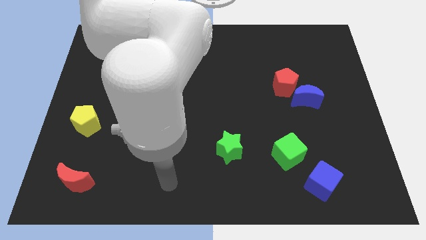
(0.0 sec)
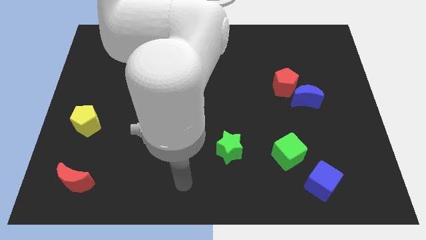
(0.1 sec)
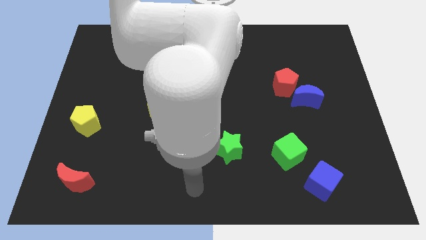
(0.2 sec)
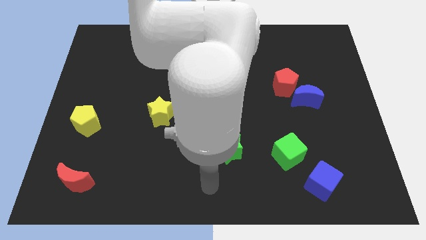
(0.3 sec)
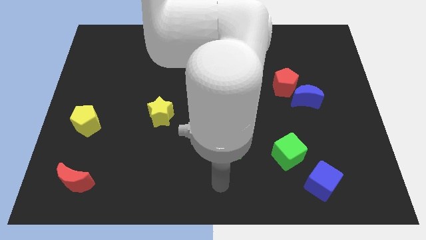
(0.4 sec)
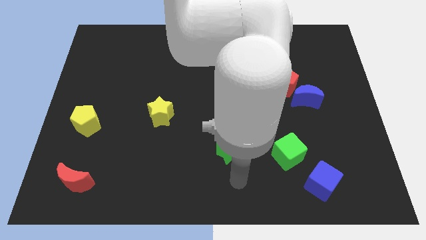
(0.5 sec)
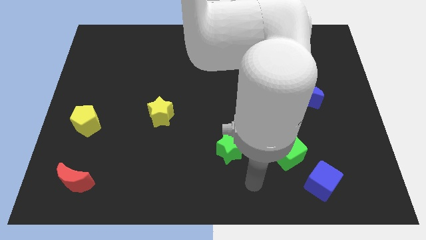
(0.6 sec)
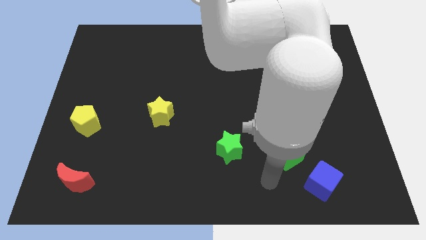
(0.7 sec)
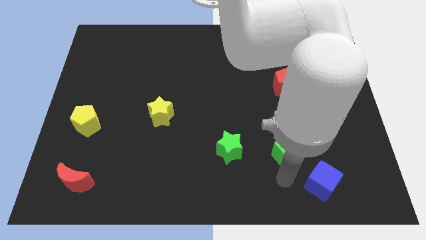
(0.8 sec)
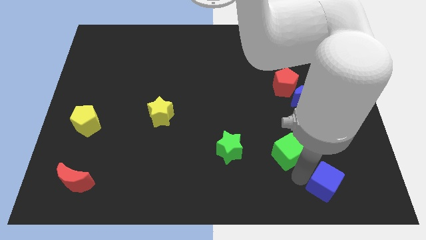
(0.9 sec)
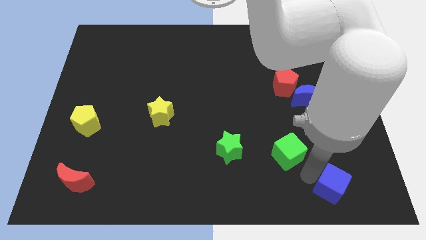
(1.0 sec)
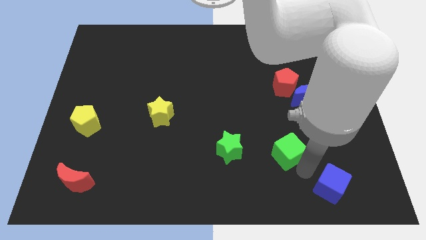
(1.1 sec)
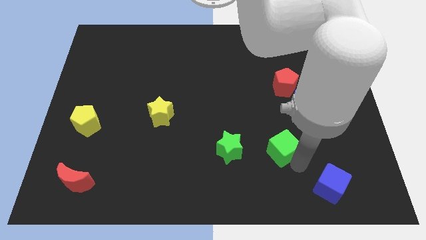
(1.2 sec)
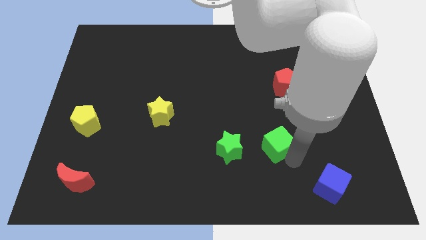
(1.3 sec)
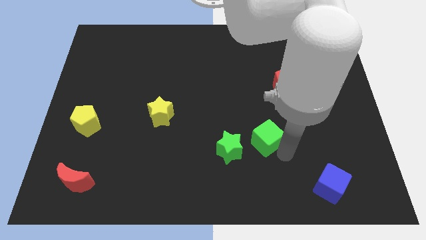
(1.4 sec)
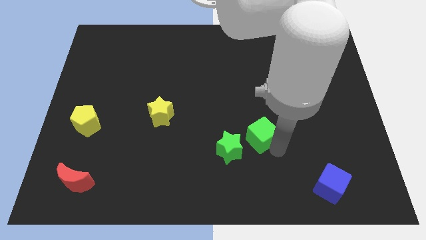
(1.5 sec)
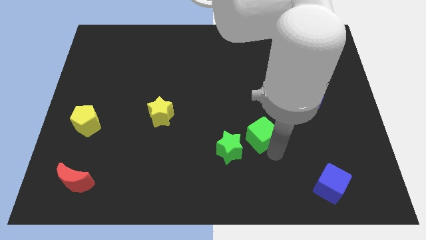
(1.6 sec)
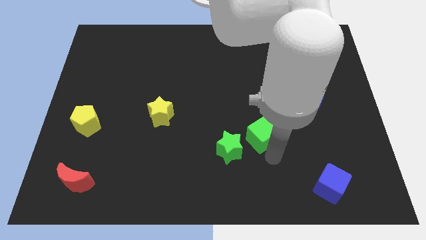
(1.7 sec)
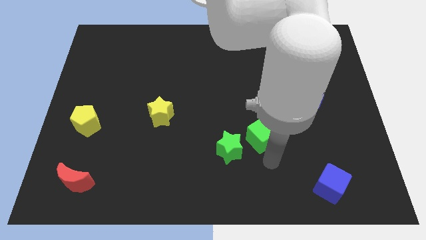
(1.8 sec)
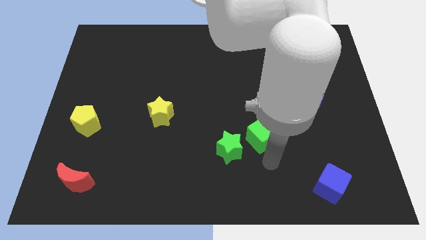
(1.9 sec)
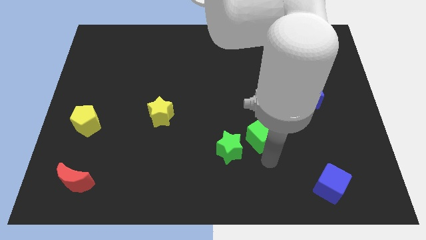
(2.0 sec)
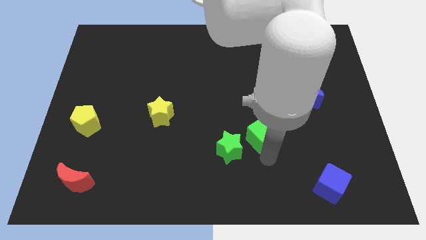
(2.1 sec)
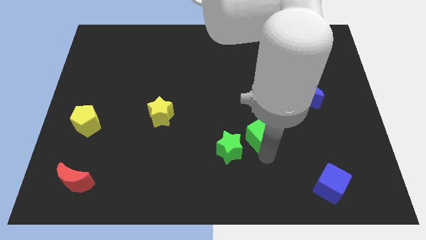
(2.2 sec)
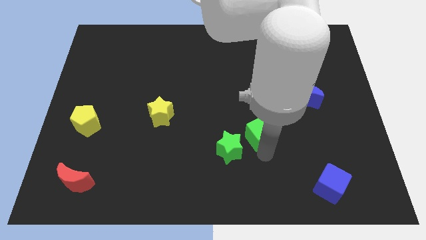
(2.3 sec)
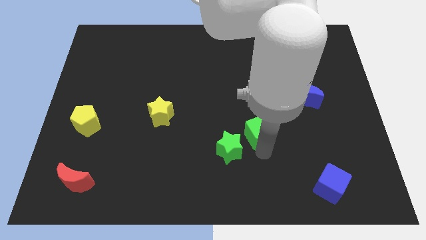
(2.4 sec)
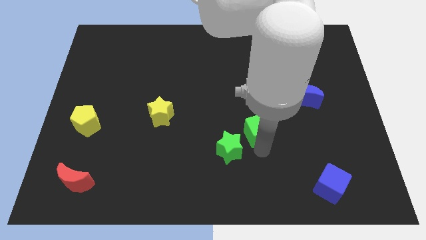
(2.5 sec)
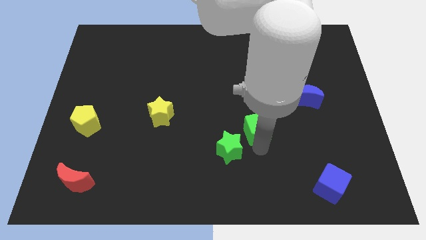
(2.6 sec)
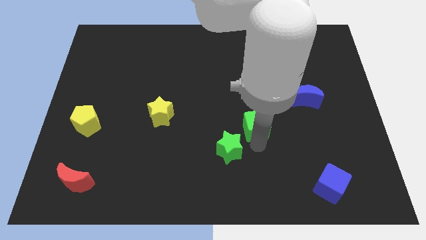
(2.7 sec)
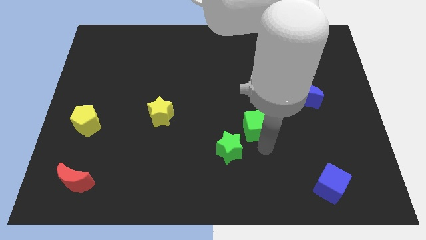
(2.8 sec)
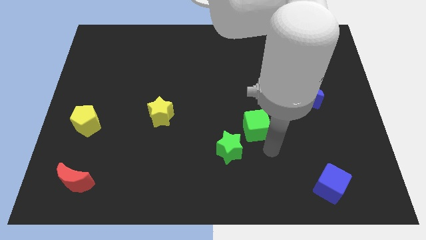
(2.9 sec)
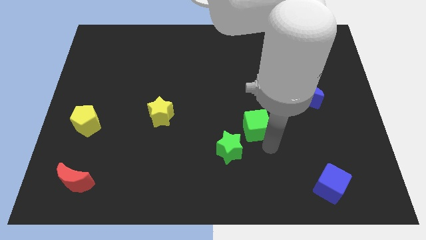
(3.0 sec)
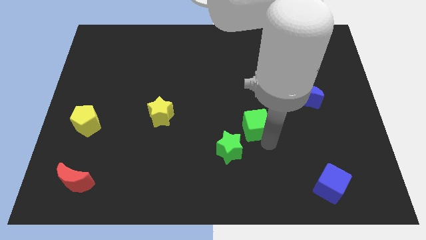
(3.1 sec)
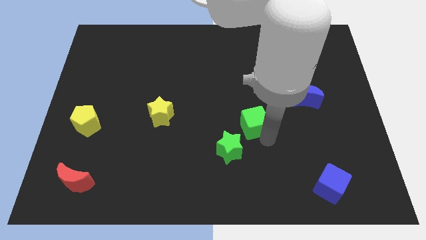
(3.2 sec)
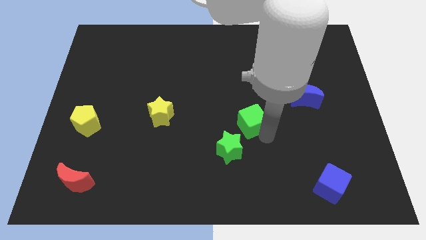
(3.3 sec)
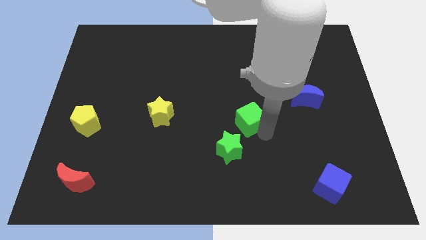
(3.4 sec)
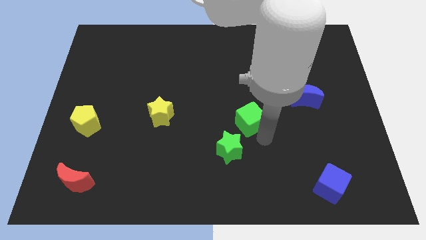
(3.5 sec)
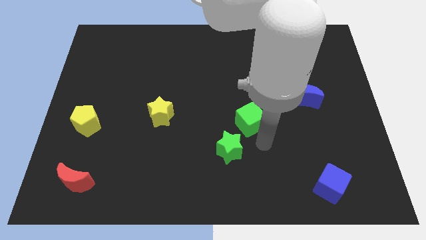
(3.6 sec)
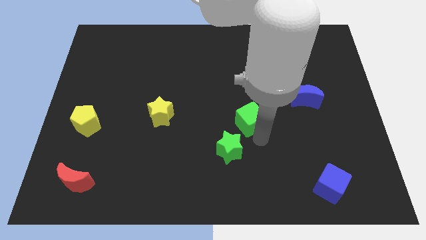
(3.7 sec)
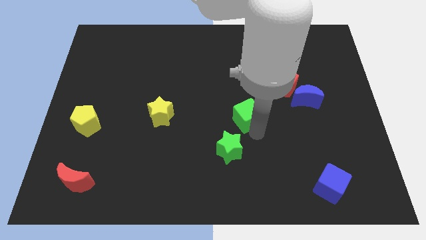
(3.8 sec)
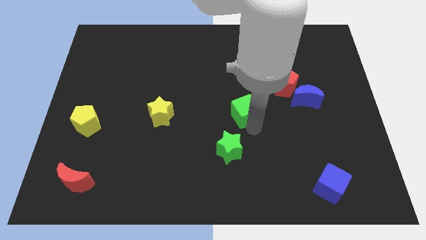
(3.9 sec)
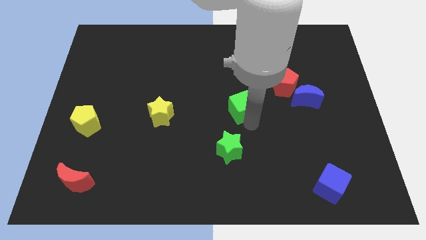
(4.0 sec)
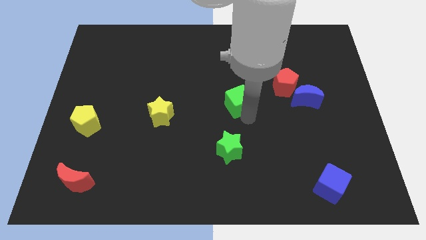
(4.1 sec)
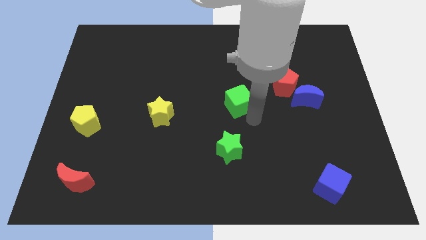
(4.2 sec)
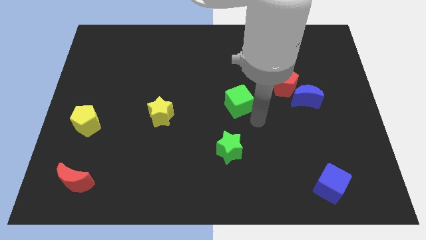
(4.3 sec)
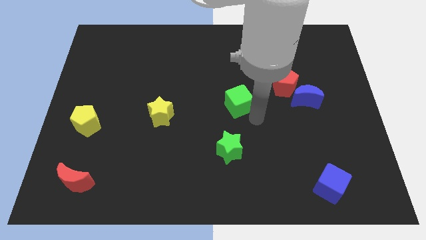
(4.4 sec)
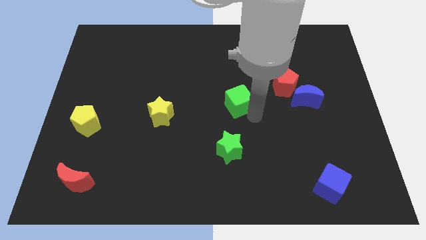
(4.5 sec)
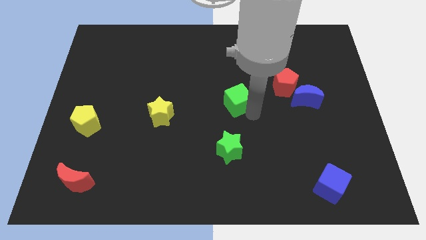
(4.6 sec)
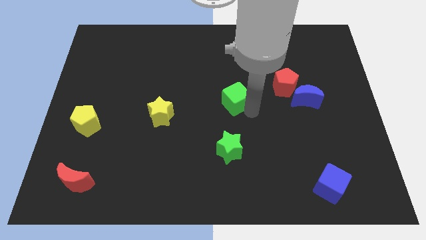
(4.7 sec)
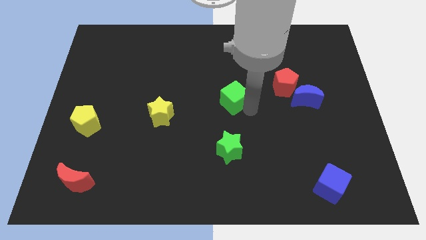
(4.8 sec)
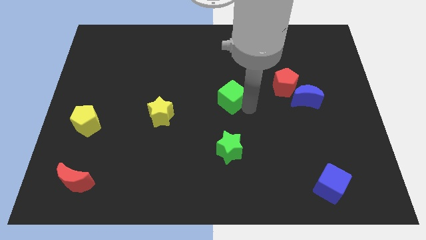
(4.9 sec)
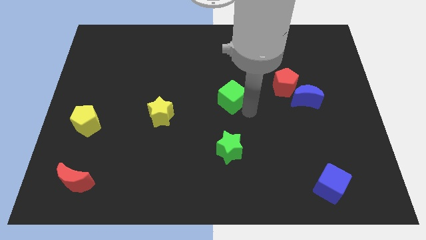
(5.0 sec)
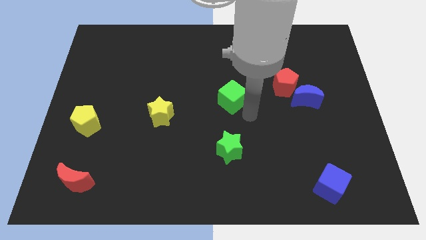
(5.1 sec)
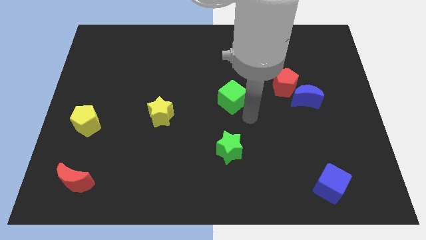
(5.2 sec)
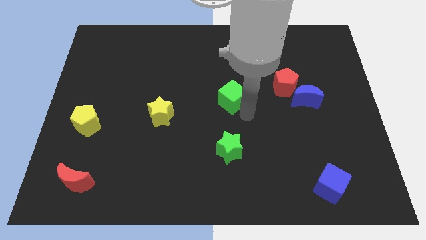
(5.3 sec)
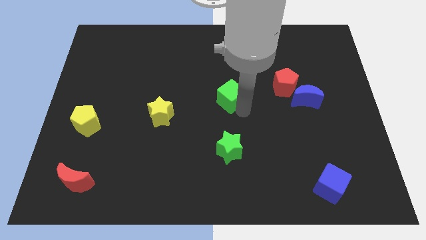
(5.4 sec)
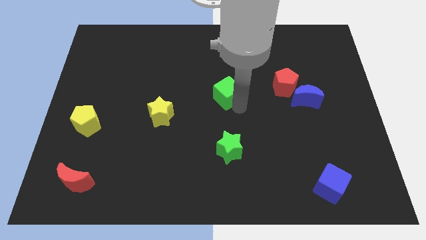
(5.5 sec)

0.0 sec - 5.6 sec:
slide the green cube diagonally upwards and to the left

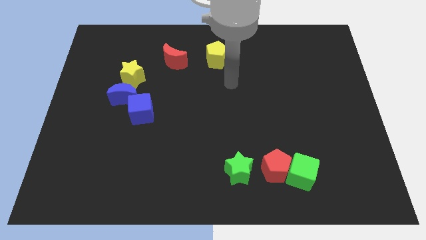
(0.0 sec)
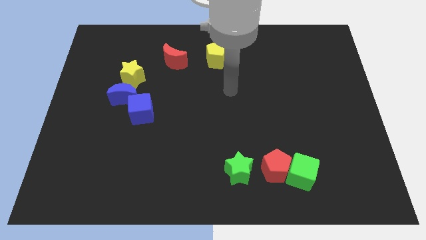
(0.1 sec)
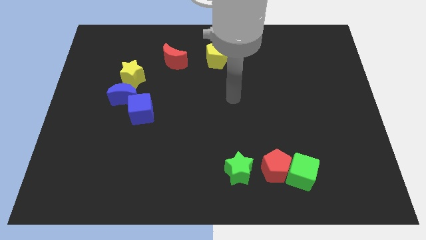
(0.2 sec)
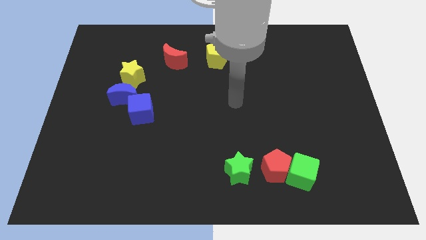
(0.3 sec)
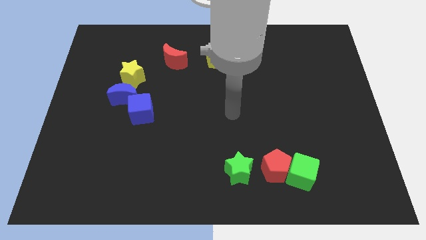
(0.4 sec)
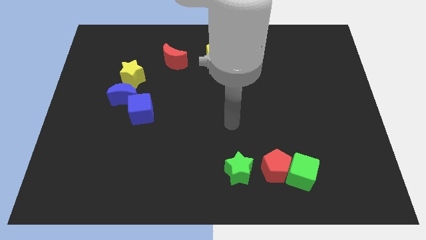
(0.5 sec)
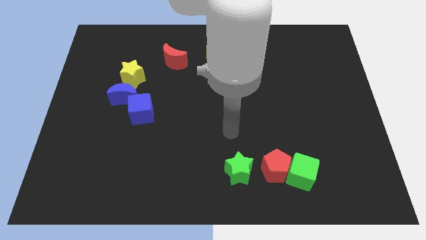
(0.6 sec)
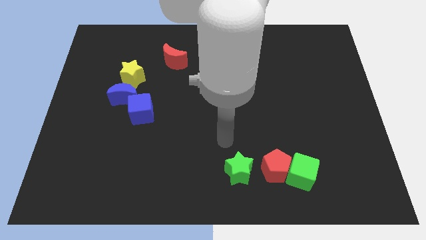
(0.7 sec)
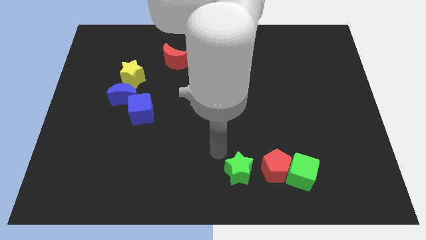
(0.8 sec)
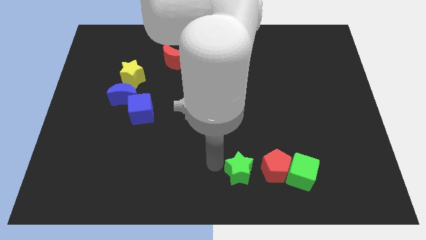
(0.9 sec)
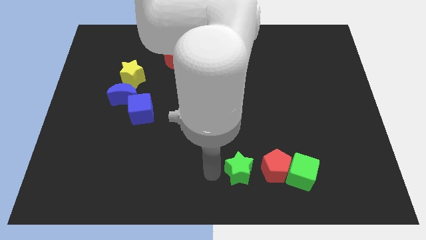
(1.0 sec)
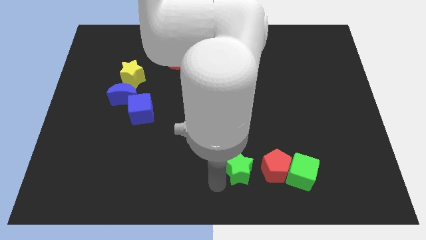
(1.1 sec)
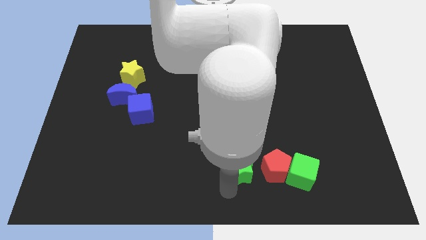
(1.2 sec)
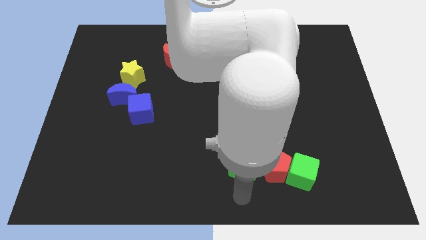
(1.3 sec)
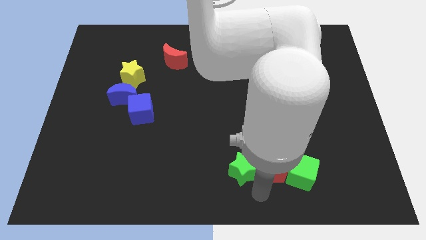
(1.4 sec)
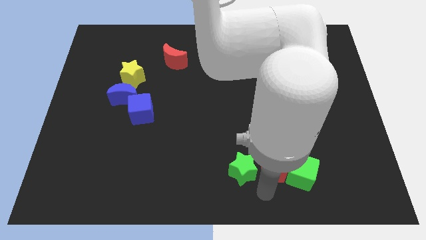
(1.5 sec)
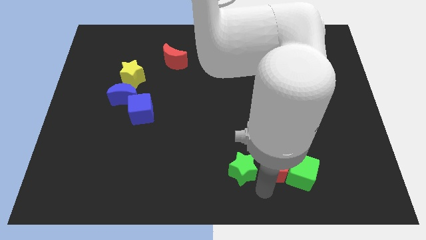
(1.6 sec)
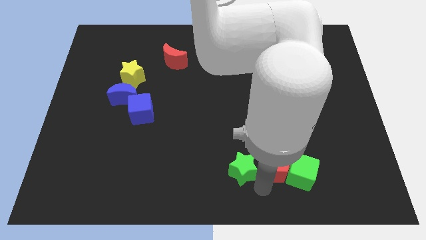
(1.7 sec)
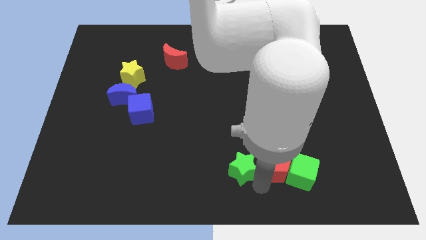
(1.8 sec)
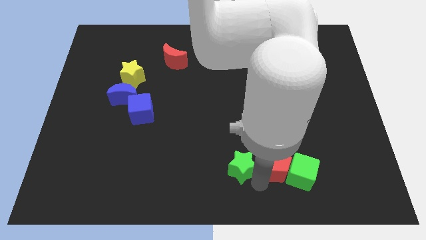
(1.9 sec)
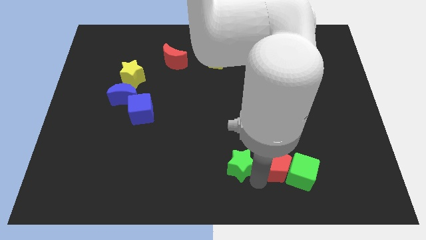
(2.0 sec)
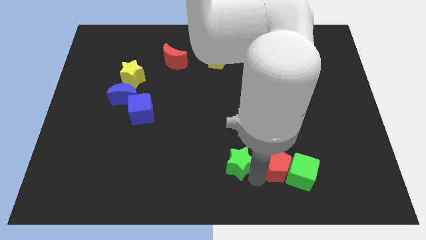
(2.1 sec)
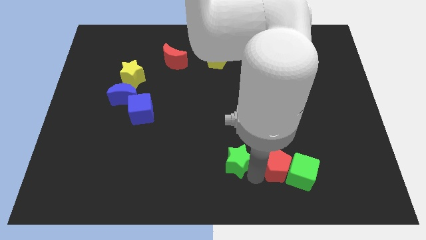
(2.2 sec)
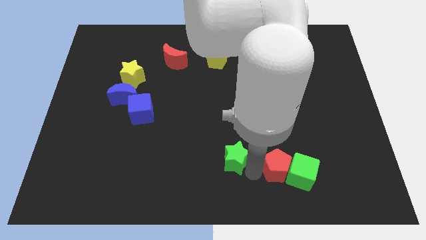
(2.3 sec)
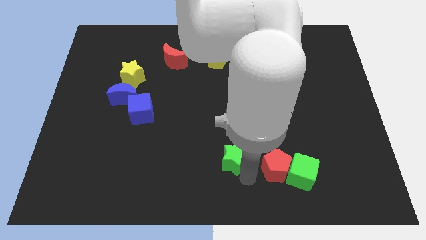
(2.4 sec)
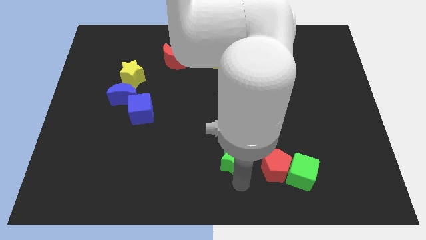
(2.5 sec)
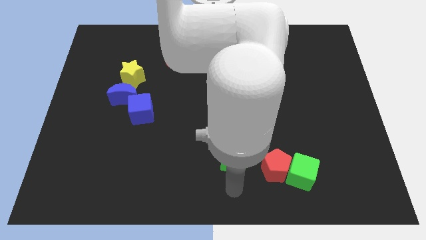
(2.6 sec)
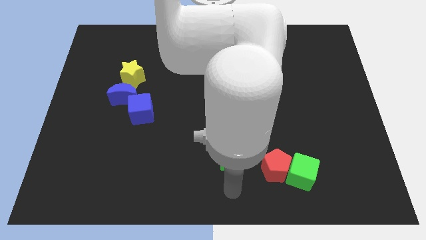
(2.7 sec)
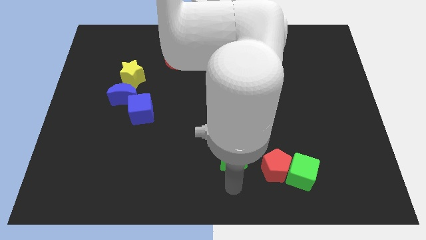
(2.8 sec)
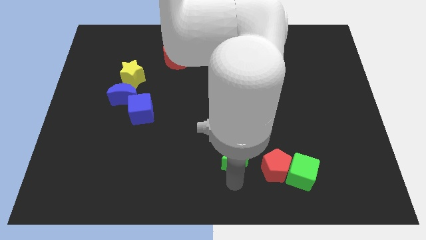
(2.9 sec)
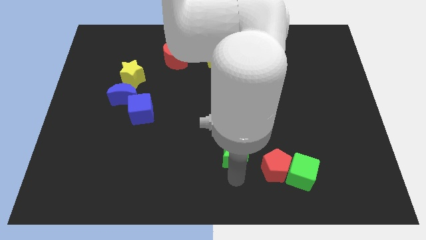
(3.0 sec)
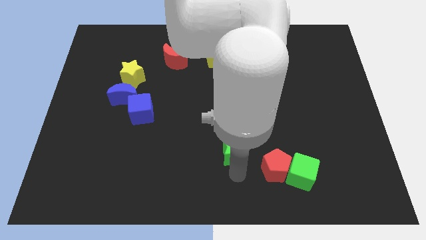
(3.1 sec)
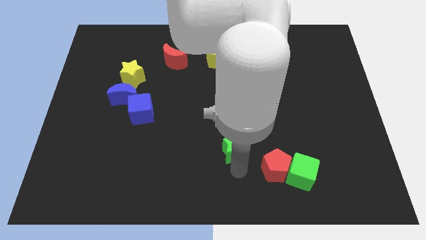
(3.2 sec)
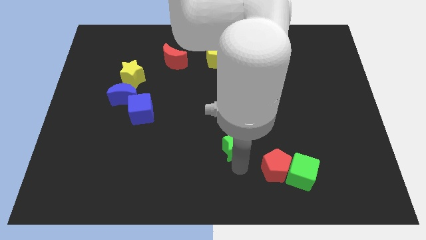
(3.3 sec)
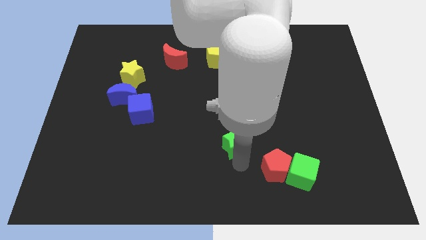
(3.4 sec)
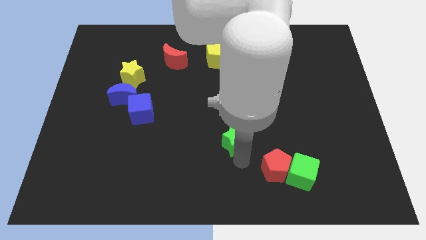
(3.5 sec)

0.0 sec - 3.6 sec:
slightly slide the green star up
